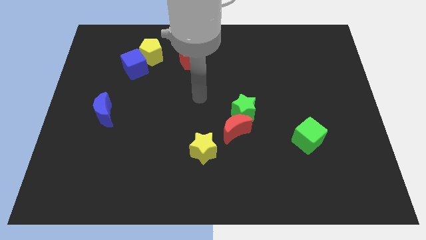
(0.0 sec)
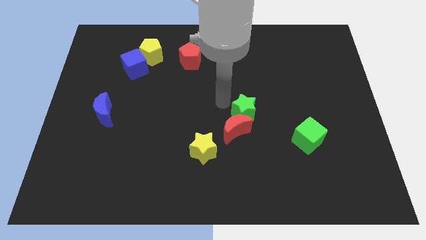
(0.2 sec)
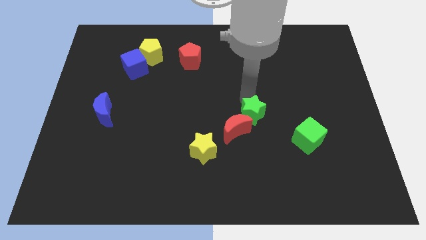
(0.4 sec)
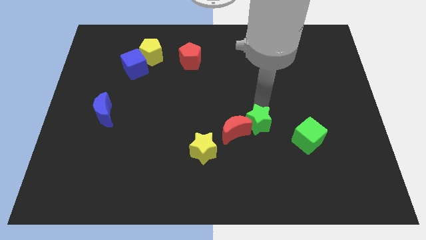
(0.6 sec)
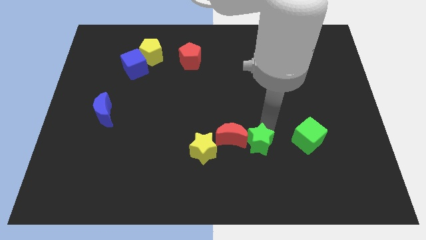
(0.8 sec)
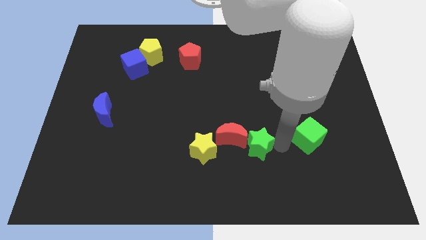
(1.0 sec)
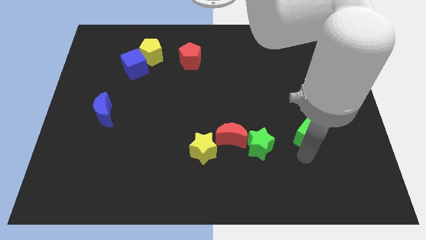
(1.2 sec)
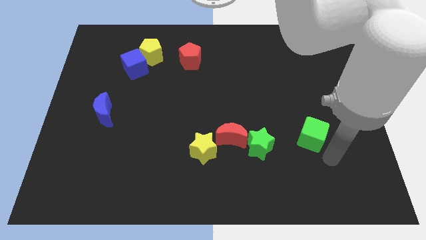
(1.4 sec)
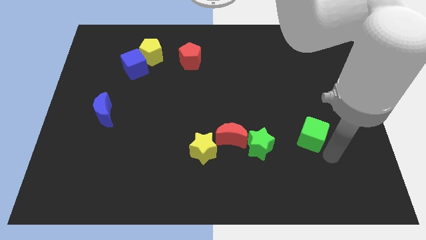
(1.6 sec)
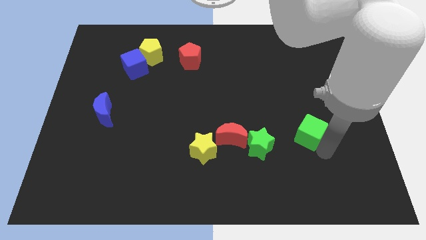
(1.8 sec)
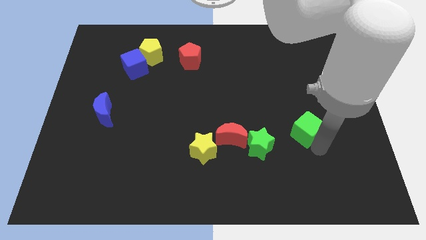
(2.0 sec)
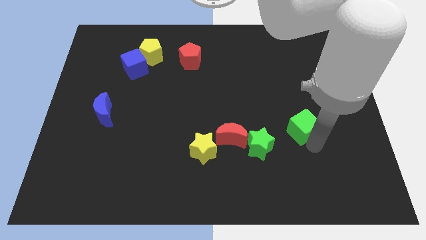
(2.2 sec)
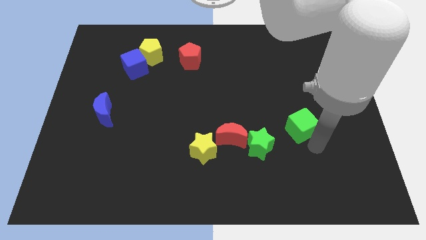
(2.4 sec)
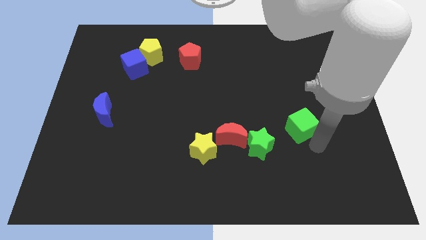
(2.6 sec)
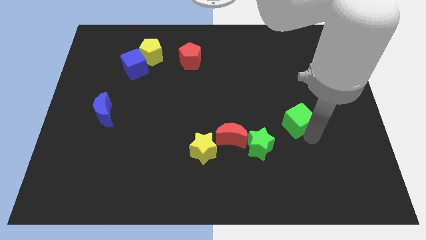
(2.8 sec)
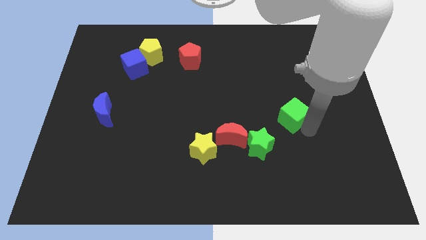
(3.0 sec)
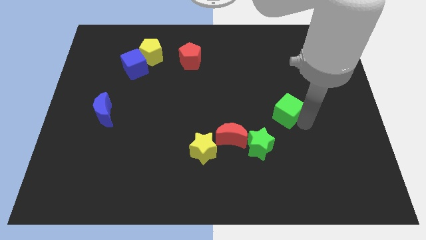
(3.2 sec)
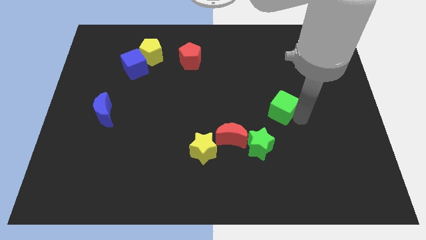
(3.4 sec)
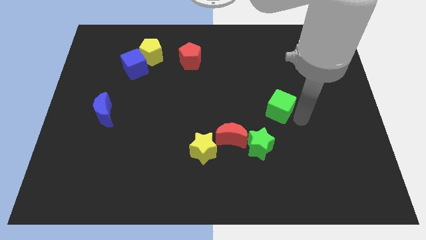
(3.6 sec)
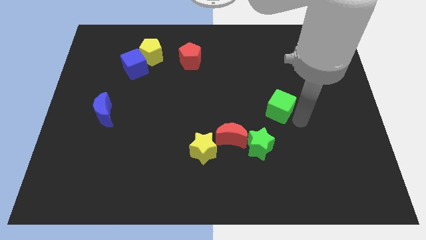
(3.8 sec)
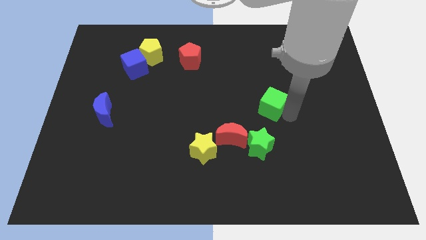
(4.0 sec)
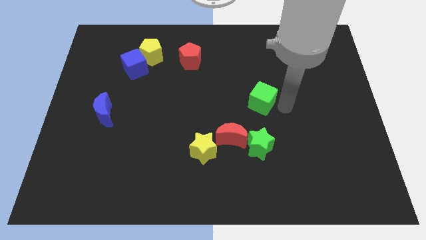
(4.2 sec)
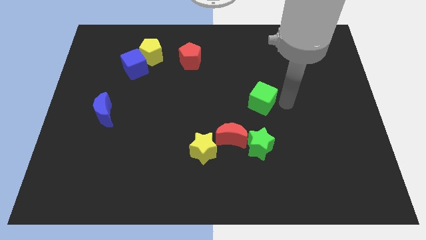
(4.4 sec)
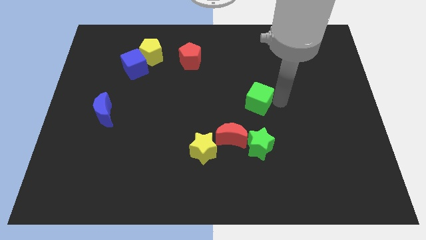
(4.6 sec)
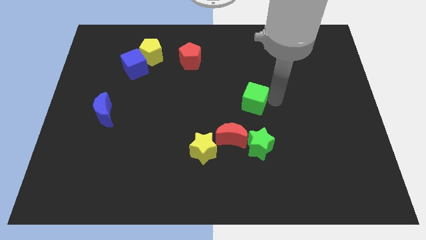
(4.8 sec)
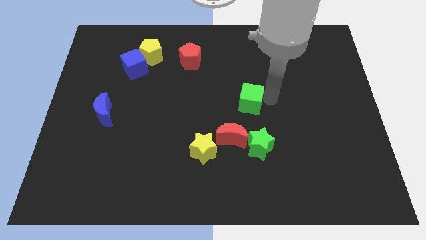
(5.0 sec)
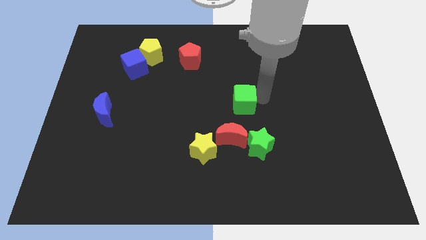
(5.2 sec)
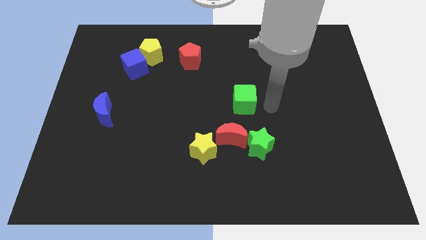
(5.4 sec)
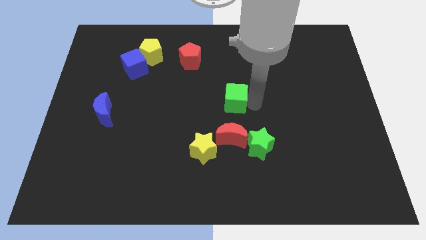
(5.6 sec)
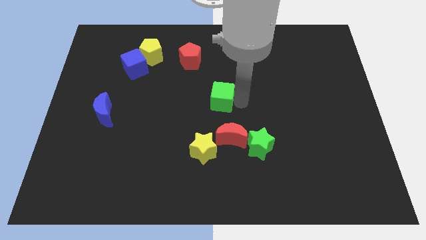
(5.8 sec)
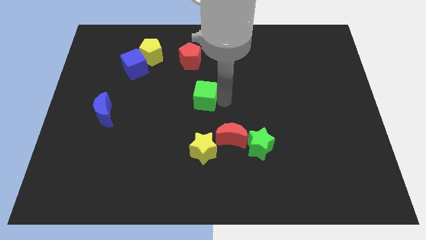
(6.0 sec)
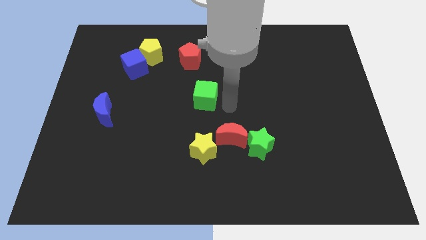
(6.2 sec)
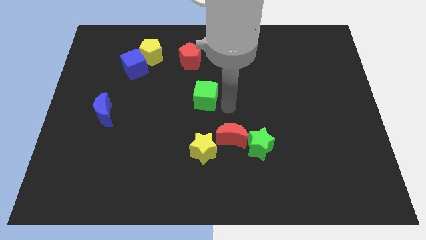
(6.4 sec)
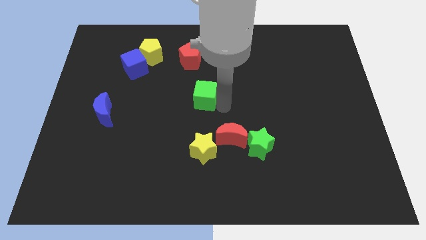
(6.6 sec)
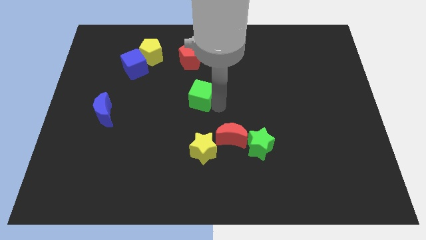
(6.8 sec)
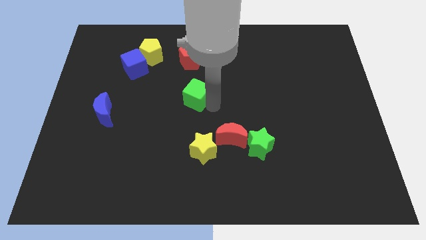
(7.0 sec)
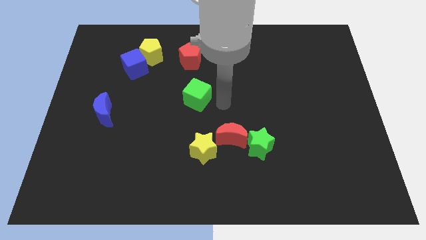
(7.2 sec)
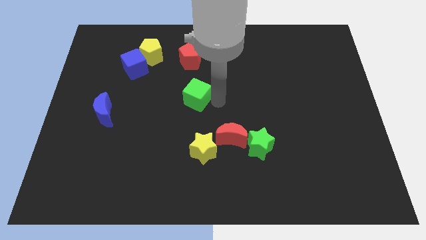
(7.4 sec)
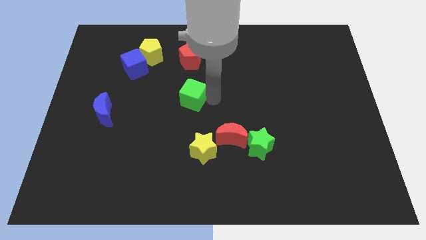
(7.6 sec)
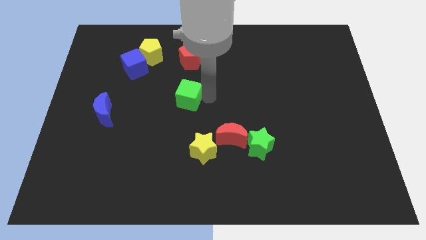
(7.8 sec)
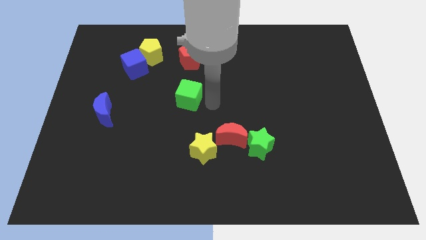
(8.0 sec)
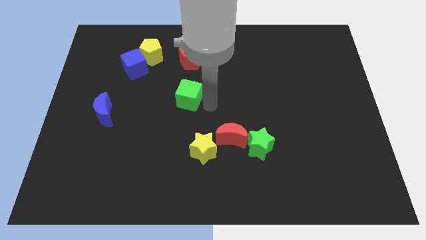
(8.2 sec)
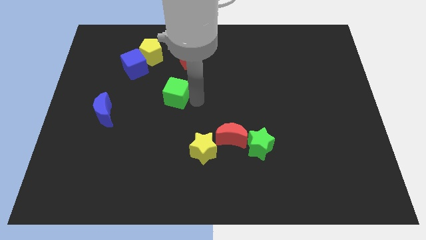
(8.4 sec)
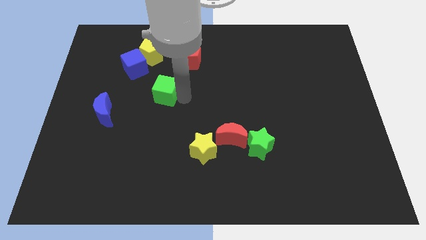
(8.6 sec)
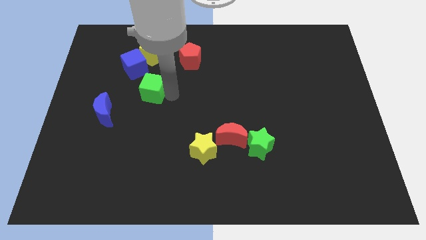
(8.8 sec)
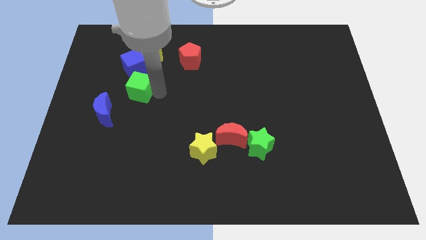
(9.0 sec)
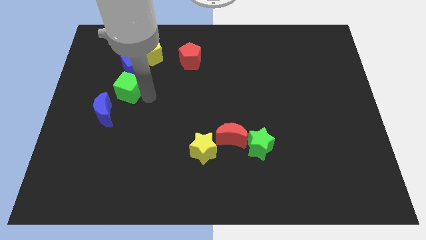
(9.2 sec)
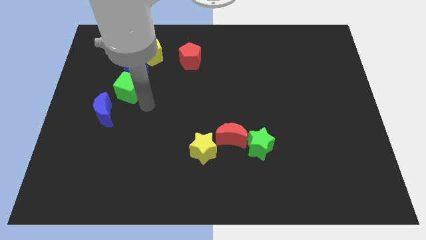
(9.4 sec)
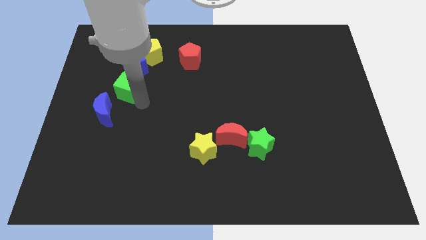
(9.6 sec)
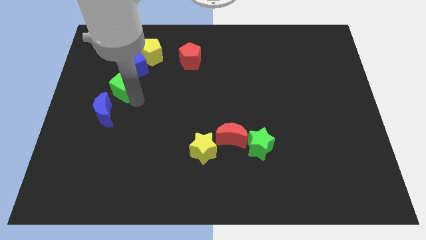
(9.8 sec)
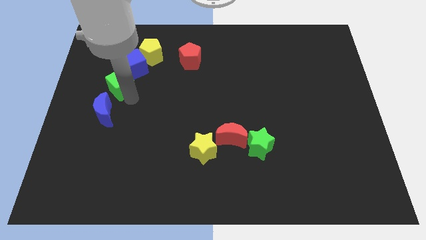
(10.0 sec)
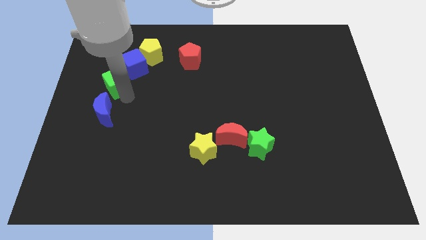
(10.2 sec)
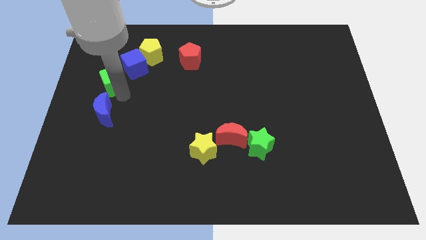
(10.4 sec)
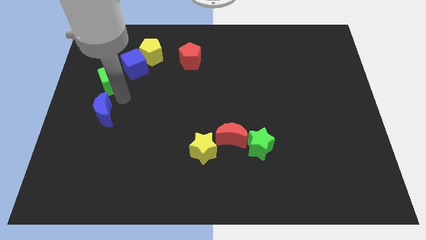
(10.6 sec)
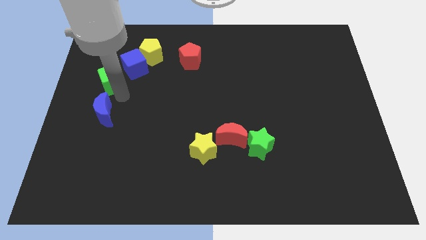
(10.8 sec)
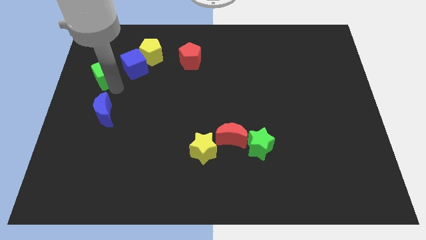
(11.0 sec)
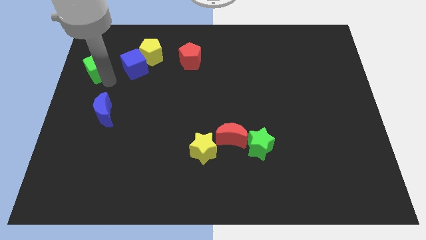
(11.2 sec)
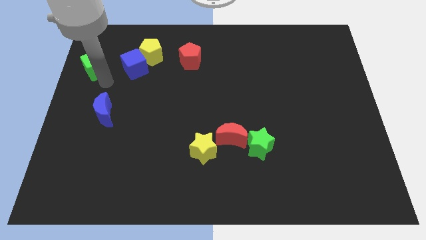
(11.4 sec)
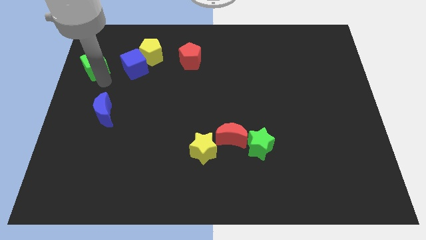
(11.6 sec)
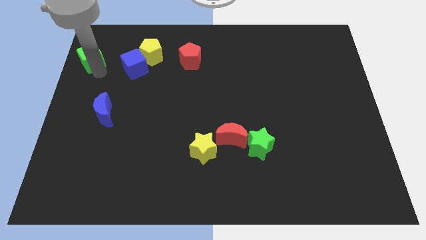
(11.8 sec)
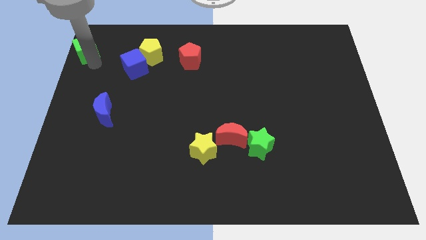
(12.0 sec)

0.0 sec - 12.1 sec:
push the green cube to the upper left corner

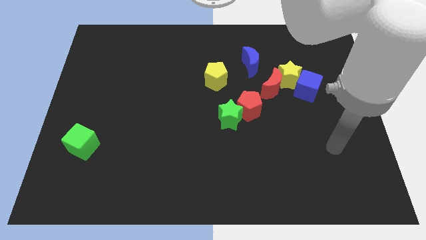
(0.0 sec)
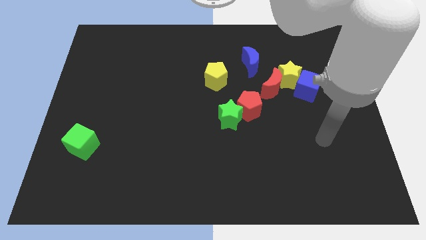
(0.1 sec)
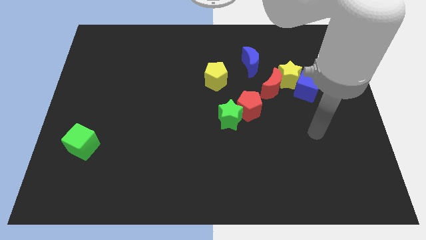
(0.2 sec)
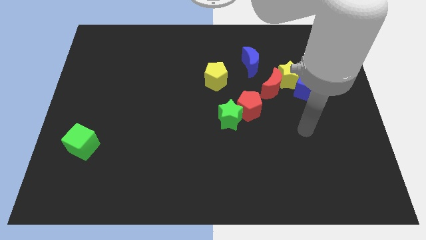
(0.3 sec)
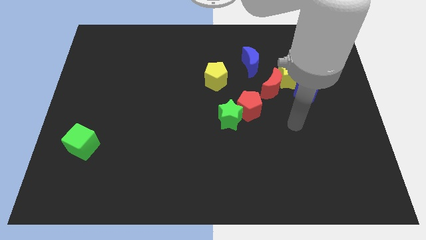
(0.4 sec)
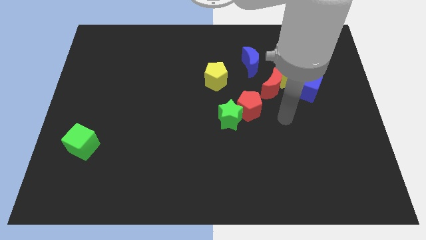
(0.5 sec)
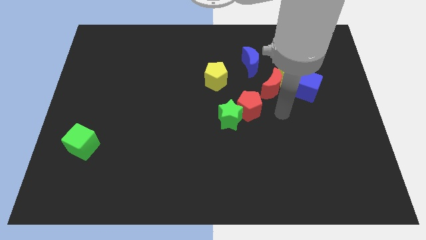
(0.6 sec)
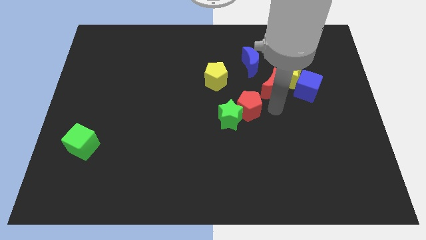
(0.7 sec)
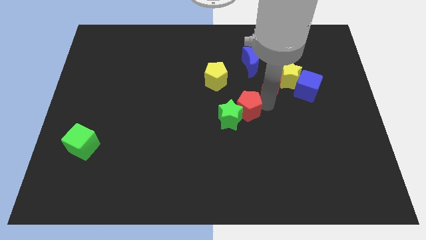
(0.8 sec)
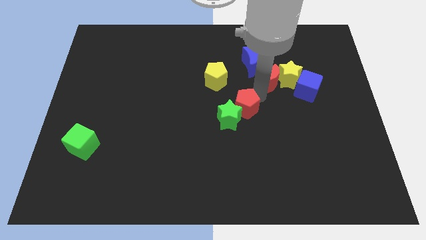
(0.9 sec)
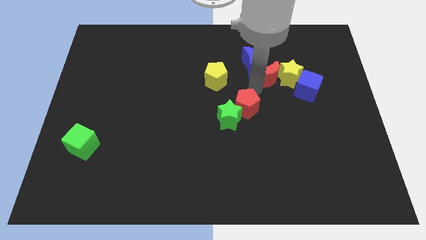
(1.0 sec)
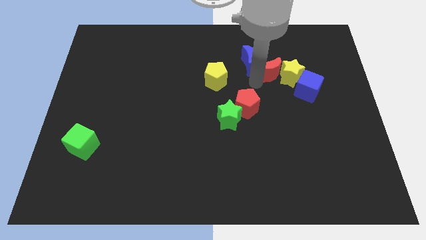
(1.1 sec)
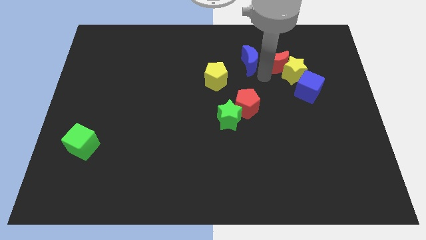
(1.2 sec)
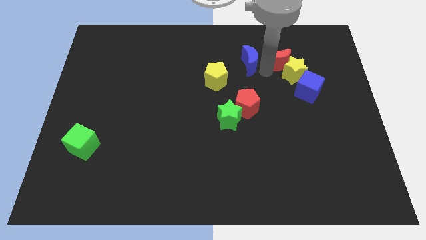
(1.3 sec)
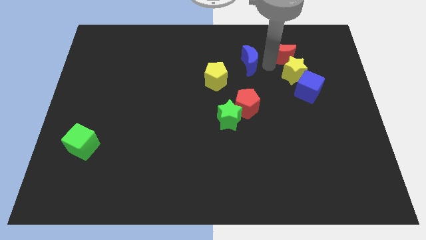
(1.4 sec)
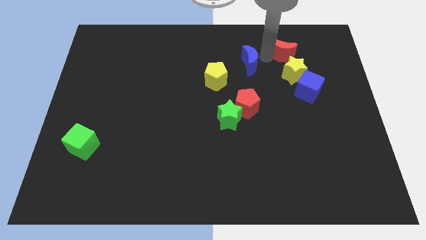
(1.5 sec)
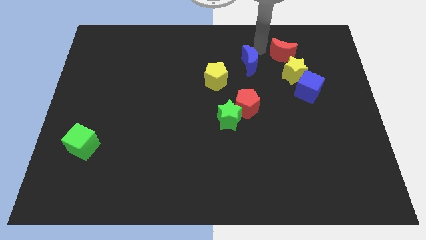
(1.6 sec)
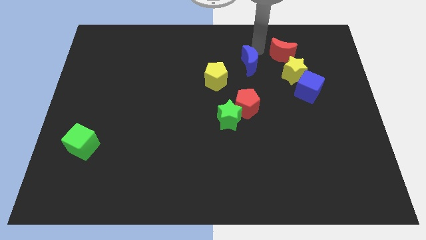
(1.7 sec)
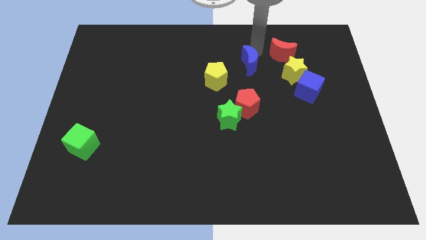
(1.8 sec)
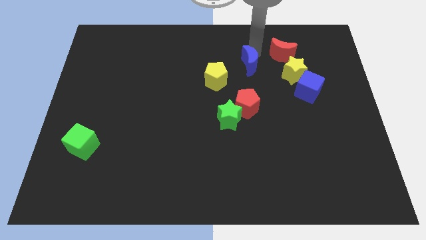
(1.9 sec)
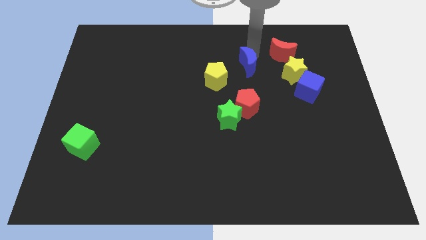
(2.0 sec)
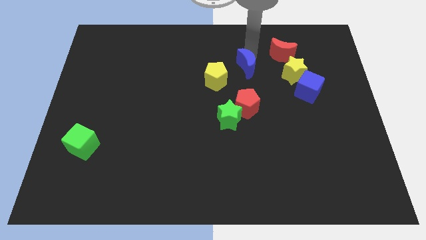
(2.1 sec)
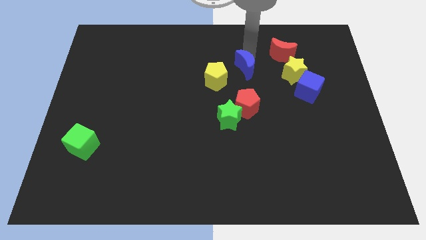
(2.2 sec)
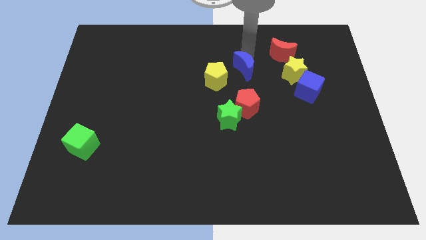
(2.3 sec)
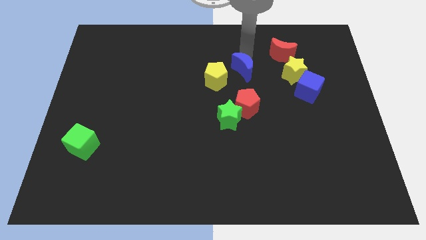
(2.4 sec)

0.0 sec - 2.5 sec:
put the blue moon to the middle
